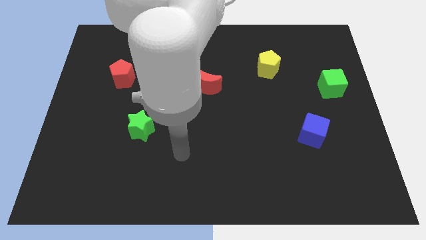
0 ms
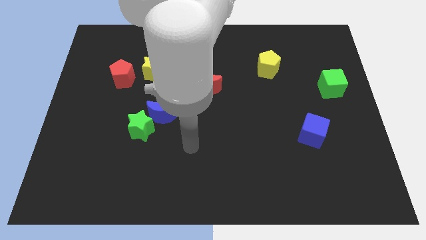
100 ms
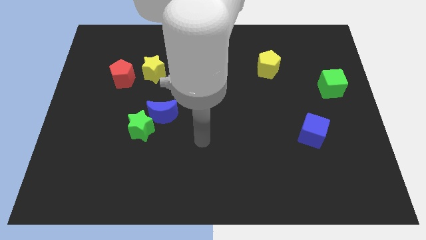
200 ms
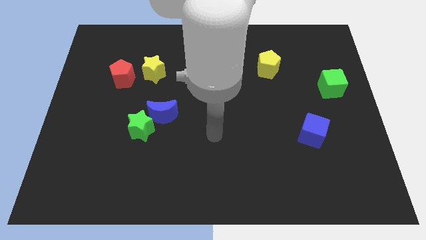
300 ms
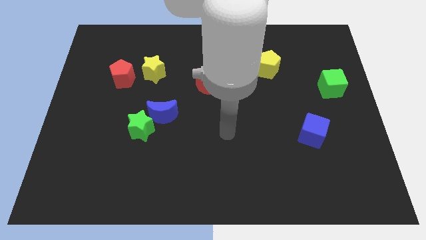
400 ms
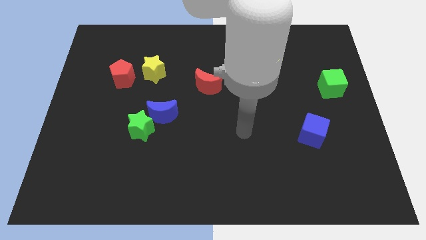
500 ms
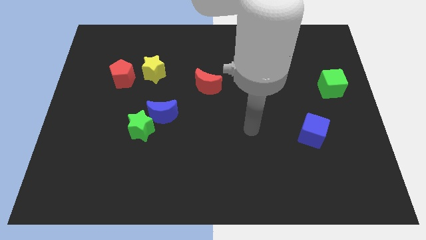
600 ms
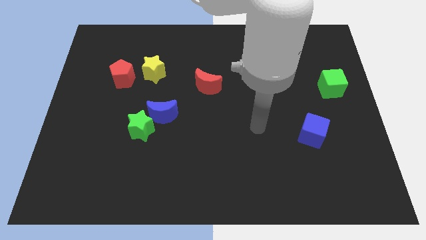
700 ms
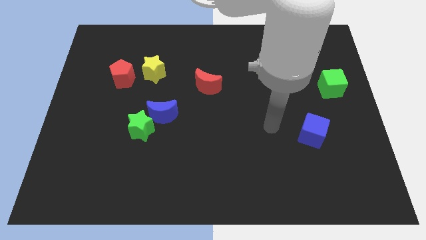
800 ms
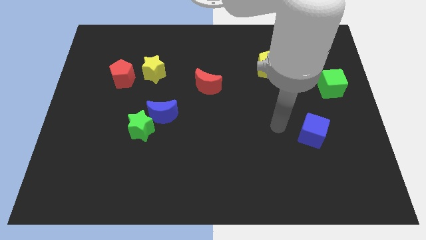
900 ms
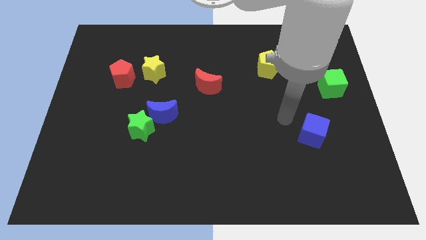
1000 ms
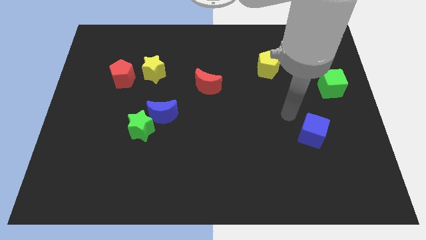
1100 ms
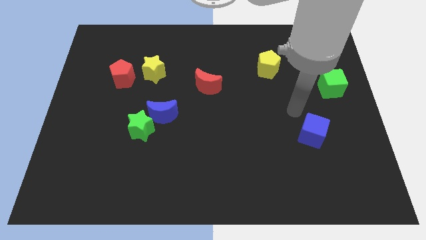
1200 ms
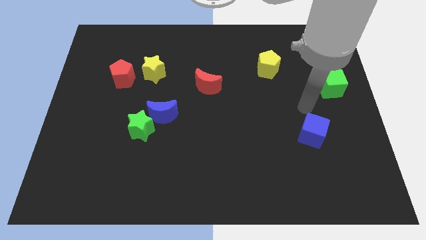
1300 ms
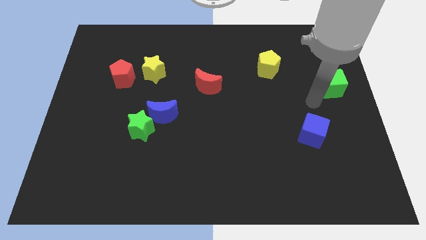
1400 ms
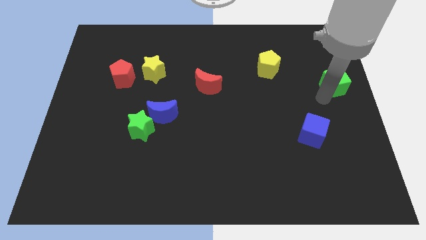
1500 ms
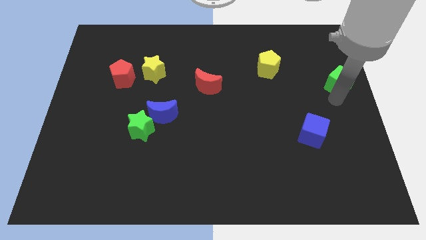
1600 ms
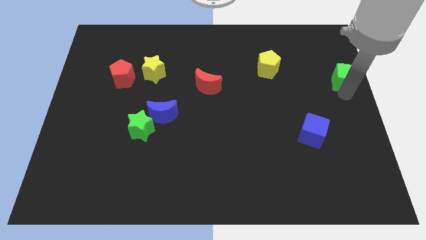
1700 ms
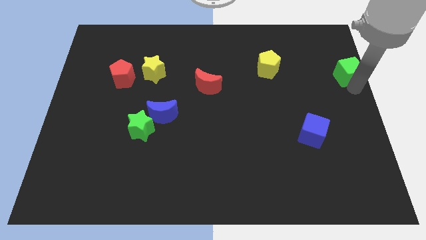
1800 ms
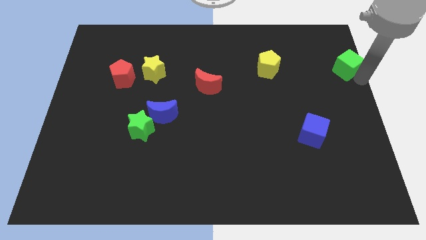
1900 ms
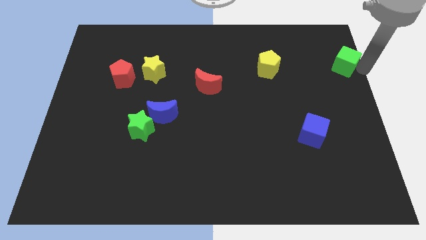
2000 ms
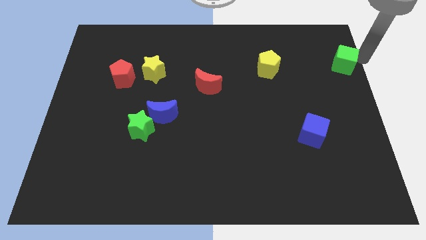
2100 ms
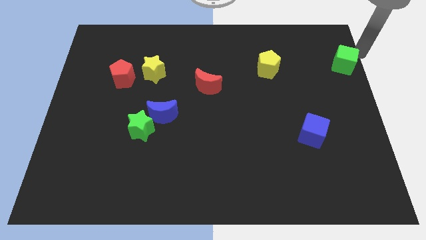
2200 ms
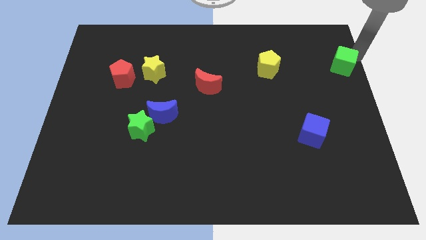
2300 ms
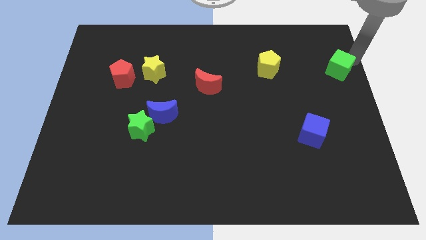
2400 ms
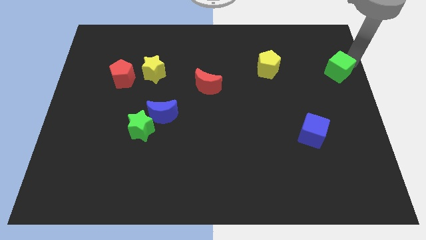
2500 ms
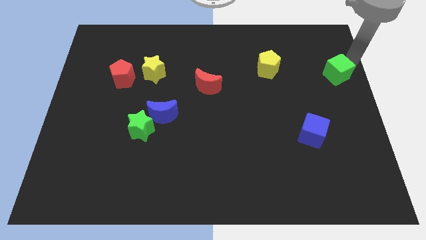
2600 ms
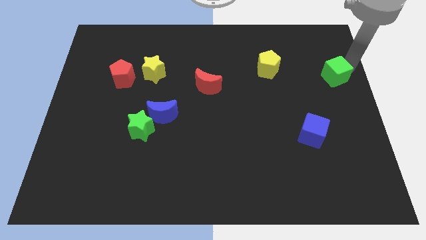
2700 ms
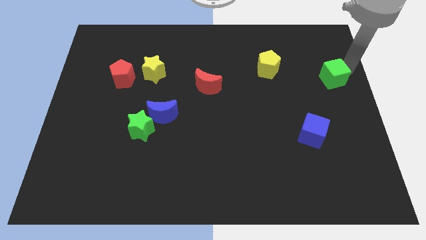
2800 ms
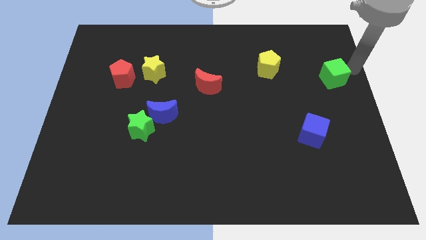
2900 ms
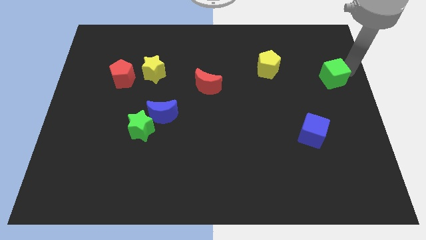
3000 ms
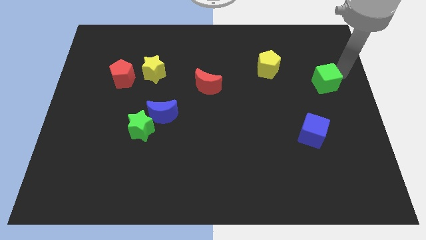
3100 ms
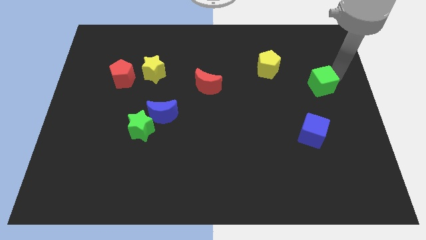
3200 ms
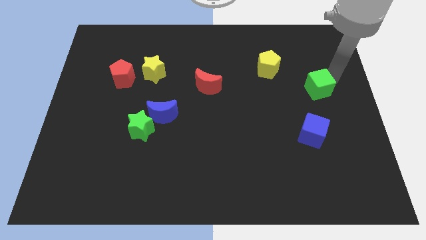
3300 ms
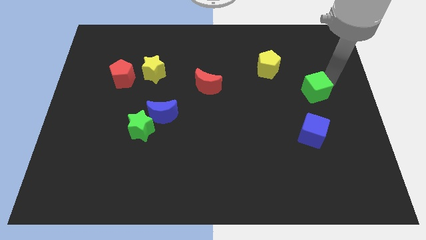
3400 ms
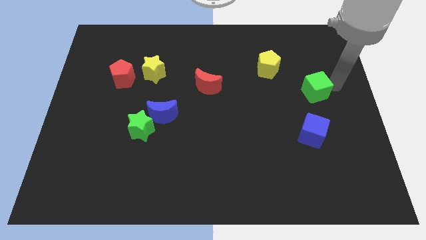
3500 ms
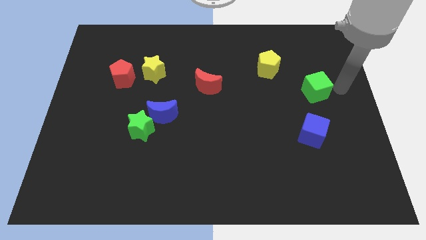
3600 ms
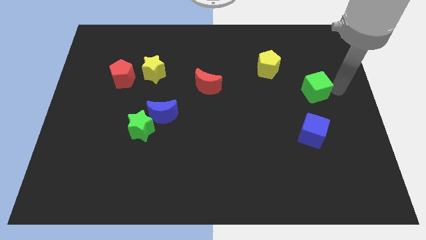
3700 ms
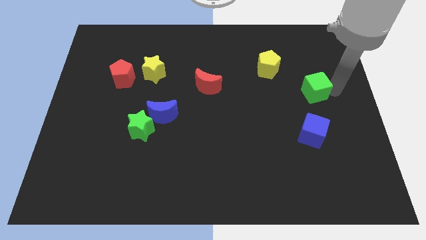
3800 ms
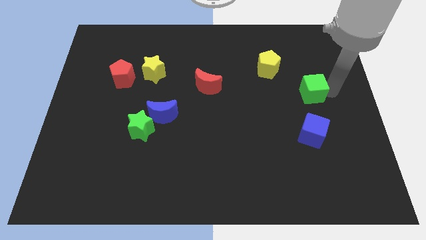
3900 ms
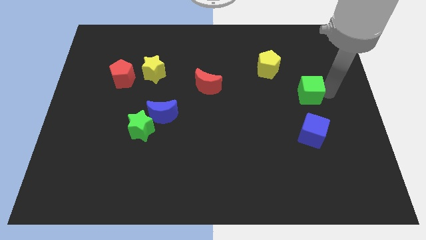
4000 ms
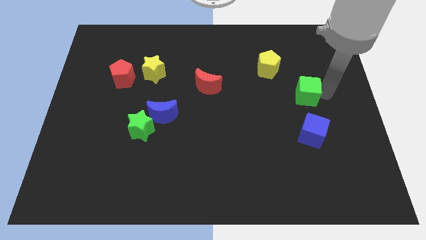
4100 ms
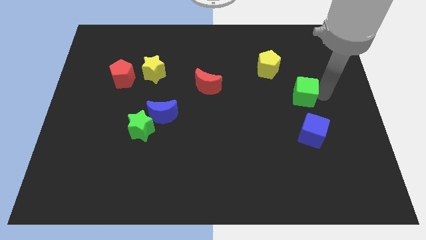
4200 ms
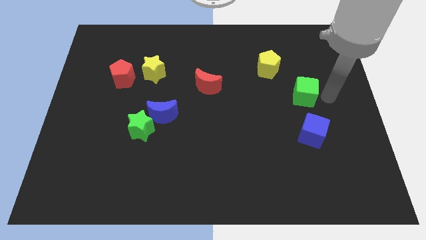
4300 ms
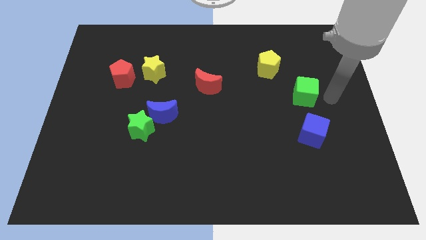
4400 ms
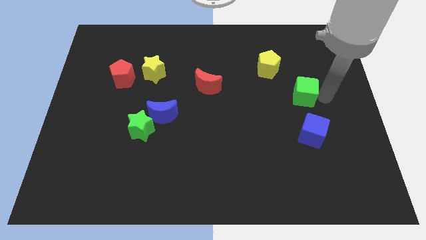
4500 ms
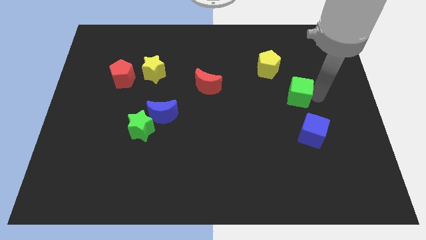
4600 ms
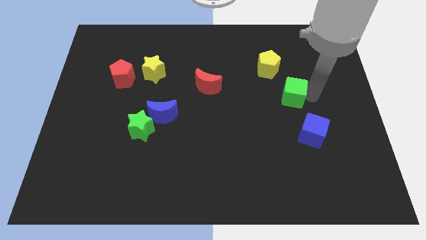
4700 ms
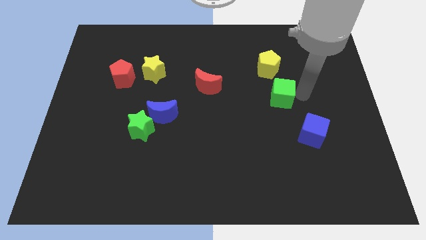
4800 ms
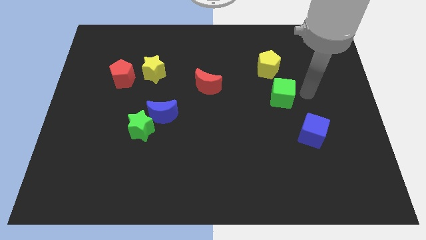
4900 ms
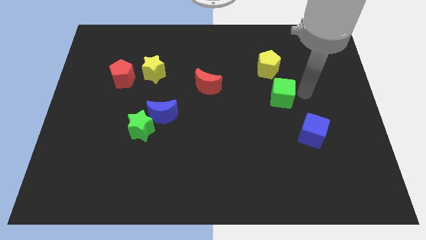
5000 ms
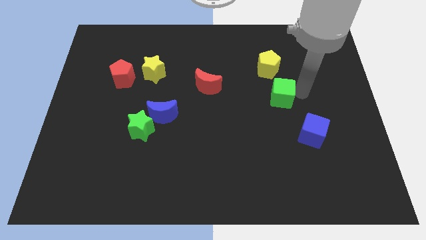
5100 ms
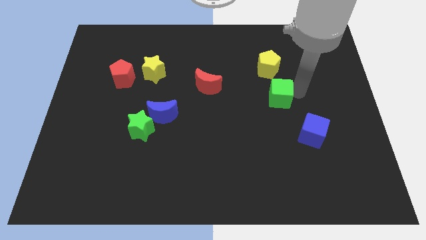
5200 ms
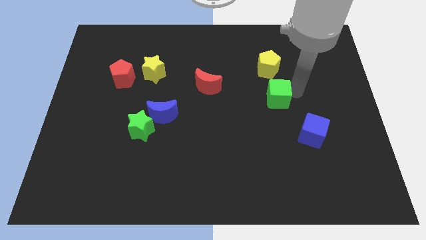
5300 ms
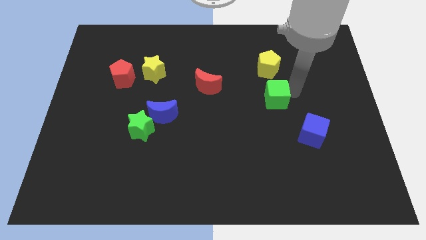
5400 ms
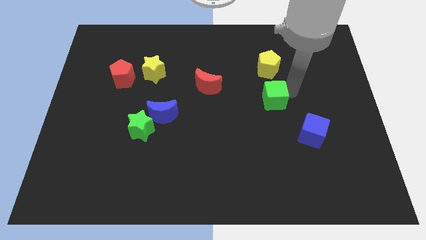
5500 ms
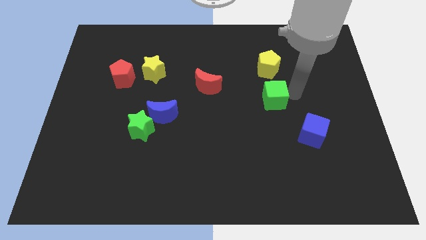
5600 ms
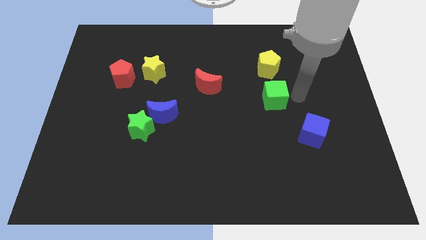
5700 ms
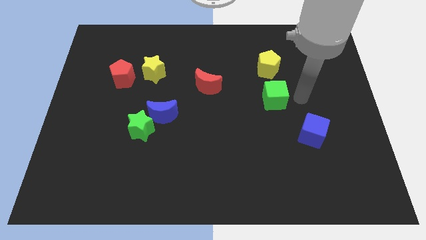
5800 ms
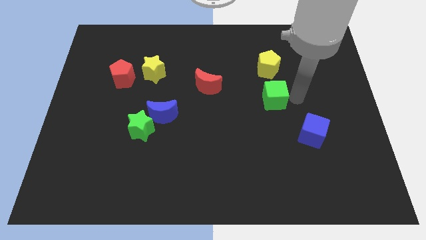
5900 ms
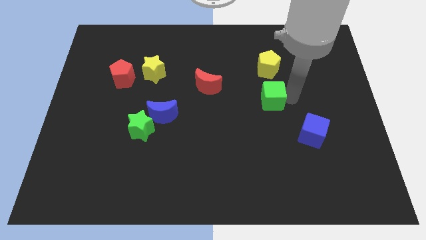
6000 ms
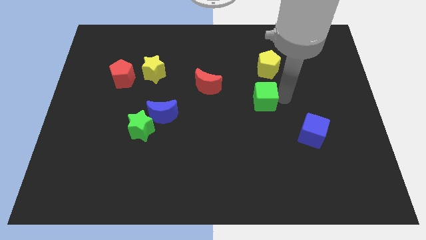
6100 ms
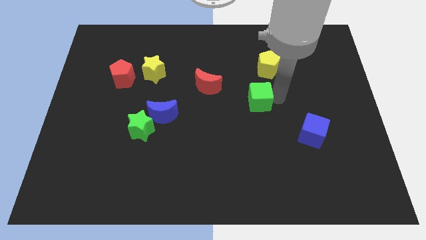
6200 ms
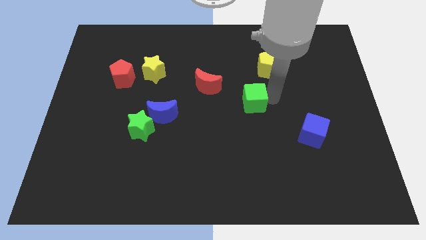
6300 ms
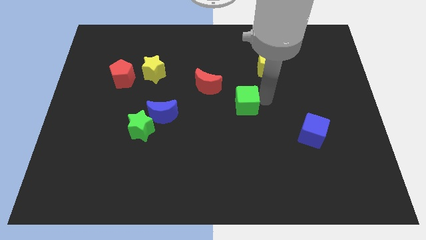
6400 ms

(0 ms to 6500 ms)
slide the green cube to the bottom right of the red moon

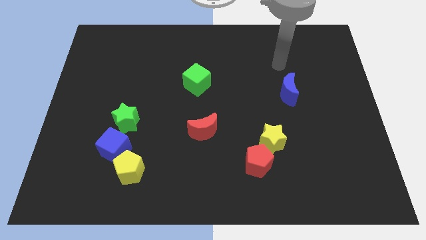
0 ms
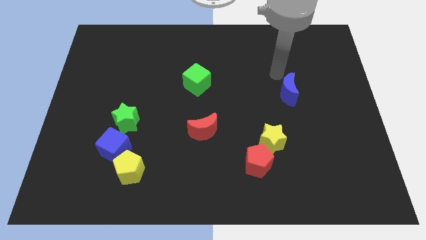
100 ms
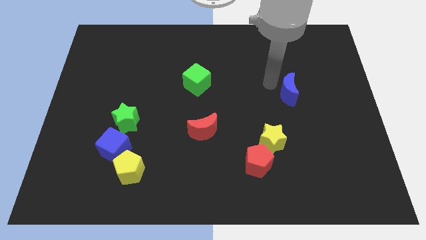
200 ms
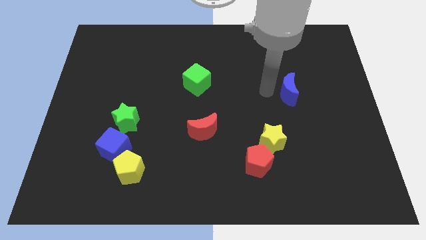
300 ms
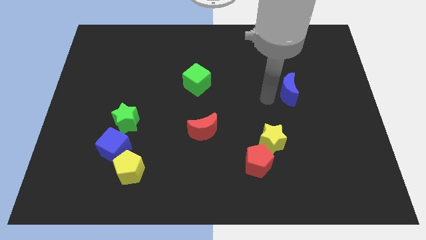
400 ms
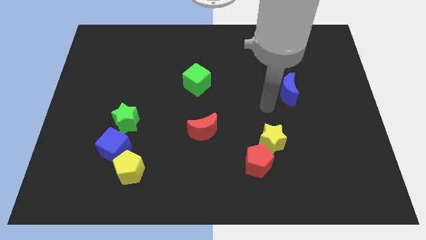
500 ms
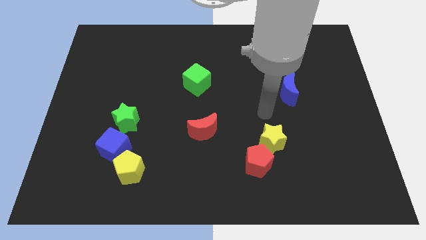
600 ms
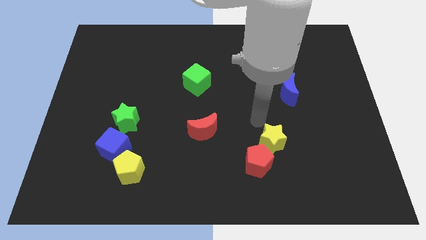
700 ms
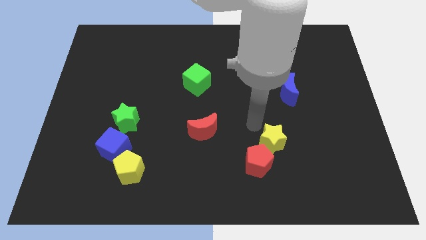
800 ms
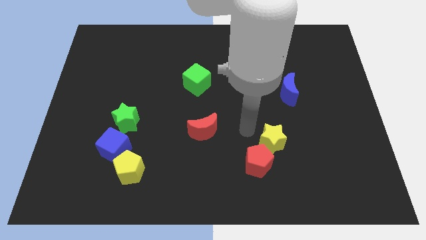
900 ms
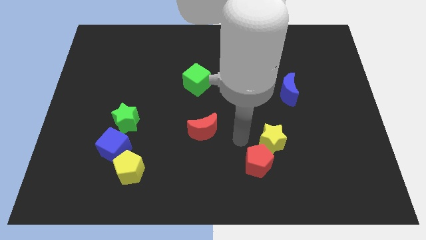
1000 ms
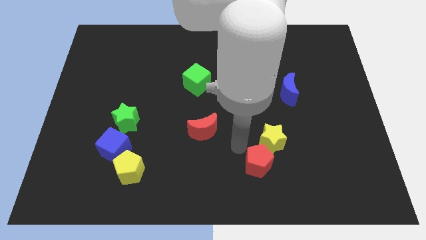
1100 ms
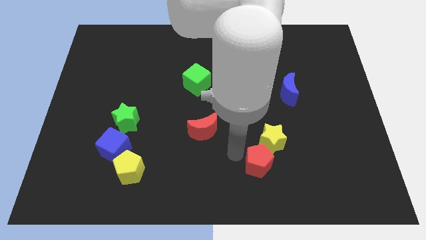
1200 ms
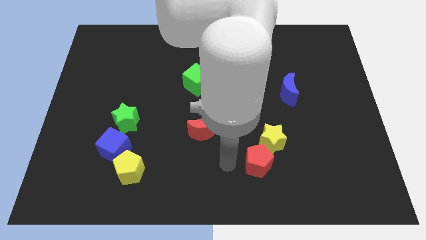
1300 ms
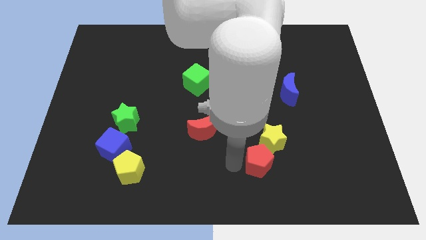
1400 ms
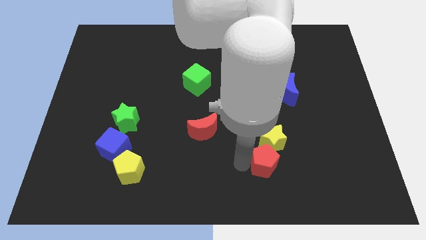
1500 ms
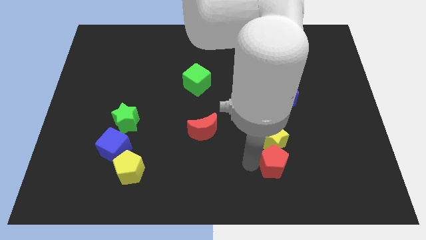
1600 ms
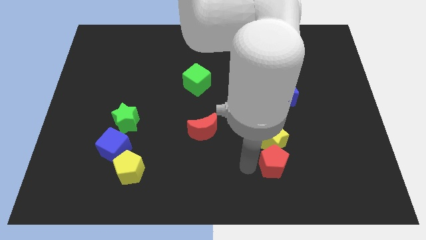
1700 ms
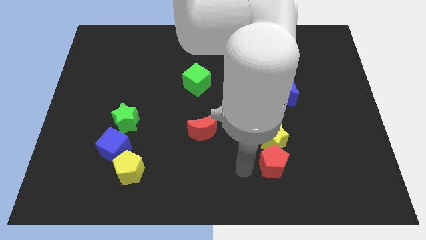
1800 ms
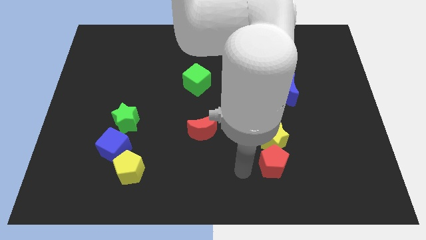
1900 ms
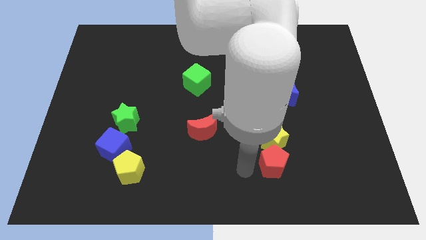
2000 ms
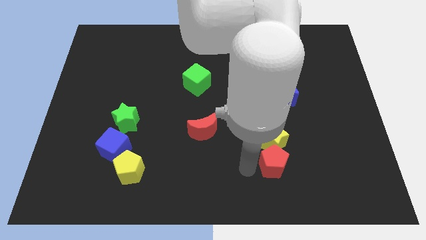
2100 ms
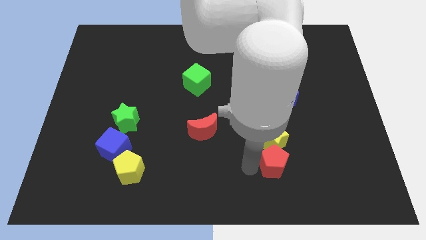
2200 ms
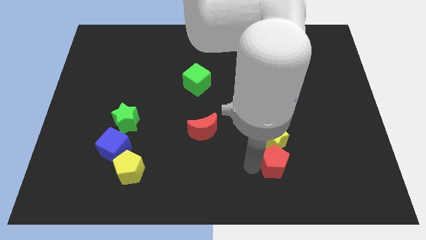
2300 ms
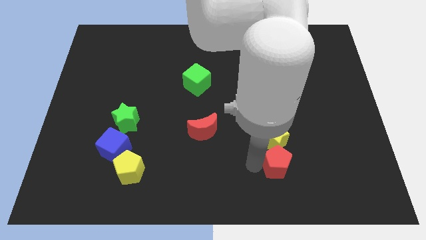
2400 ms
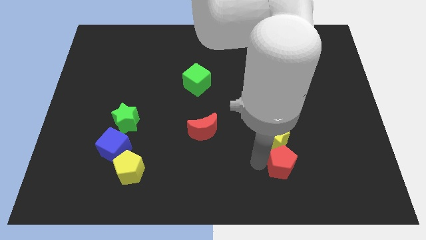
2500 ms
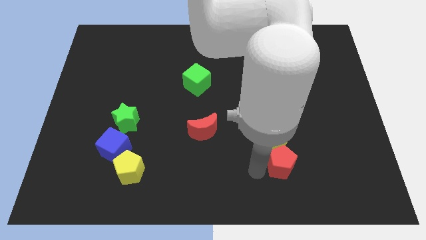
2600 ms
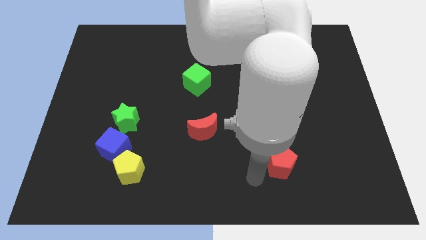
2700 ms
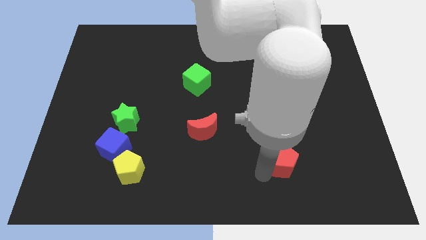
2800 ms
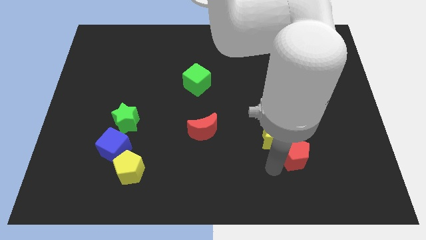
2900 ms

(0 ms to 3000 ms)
slide the red pentagon to the right of the yellow star
